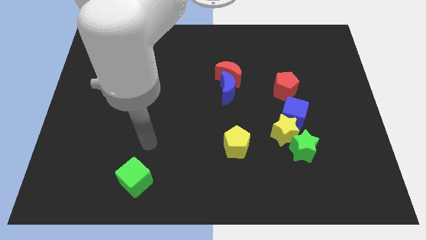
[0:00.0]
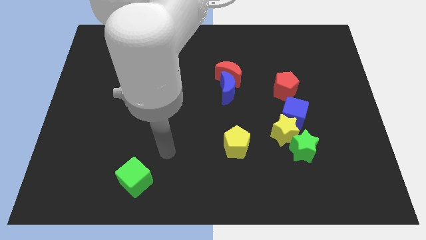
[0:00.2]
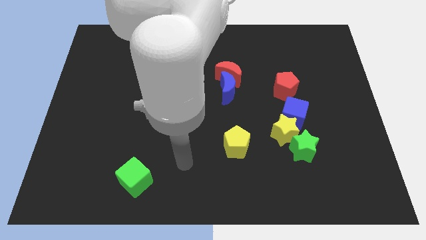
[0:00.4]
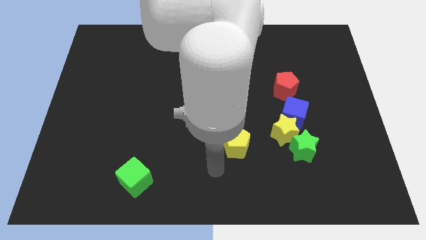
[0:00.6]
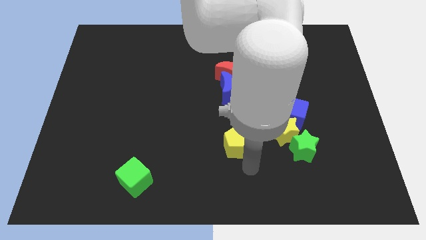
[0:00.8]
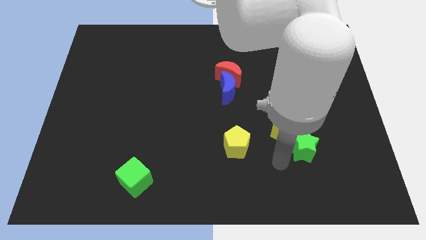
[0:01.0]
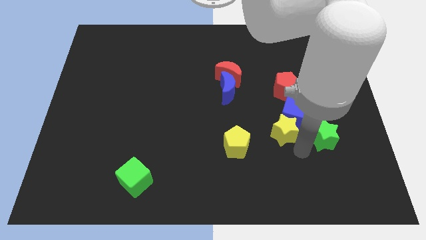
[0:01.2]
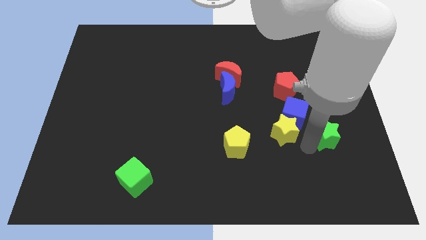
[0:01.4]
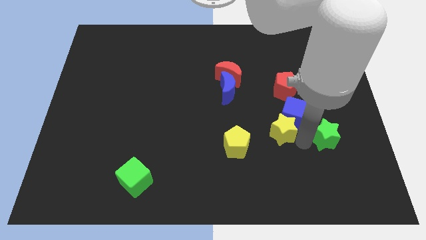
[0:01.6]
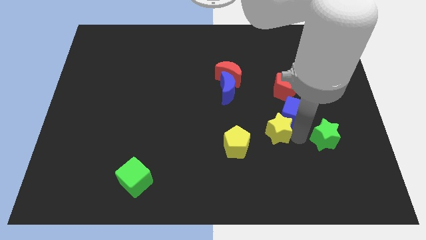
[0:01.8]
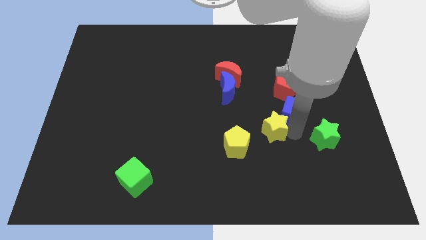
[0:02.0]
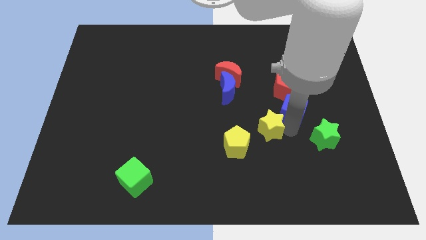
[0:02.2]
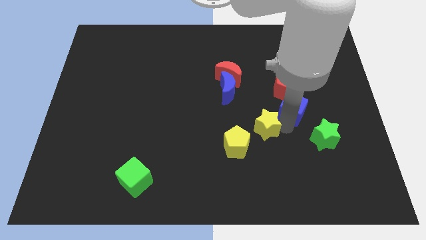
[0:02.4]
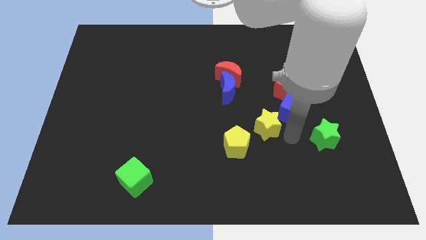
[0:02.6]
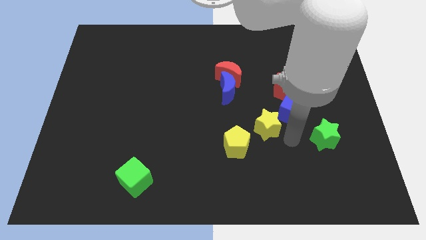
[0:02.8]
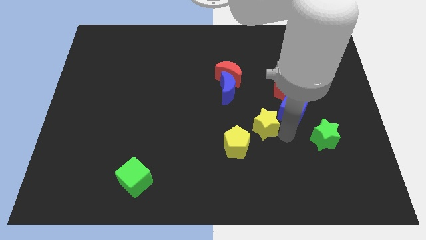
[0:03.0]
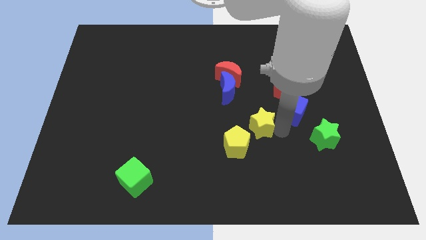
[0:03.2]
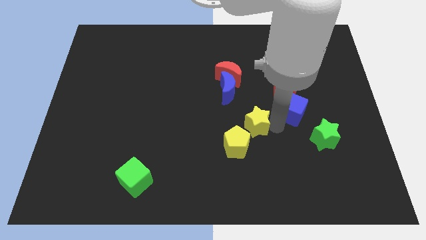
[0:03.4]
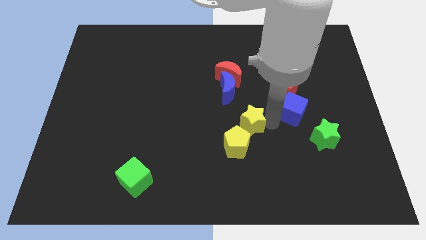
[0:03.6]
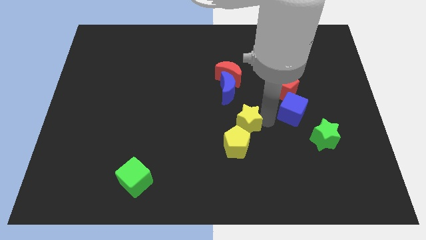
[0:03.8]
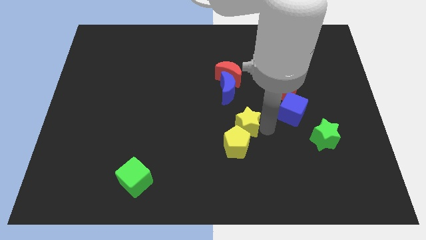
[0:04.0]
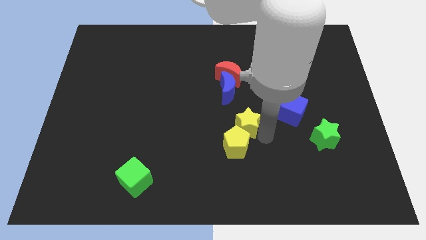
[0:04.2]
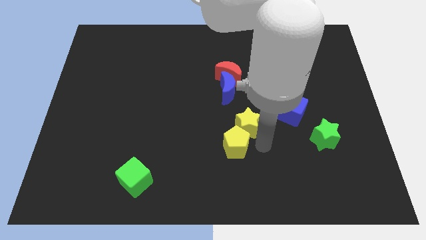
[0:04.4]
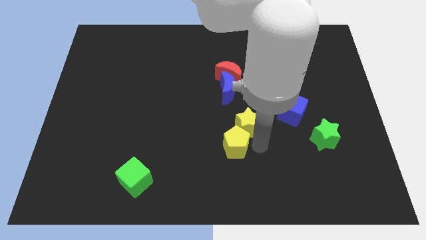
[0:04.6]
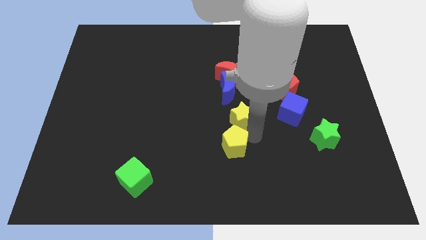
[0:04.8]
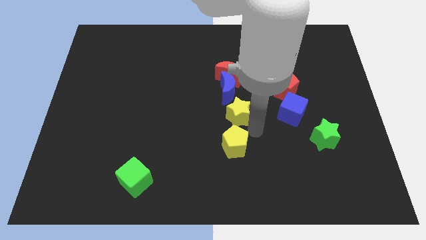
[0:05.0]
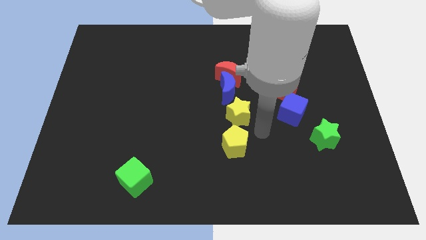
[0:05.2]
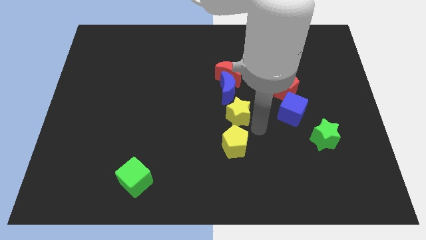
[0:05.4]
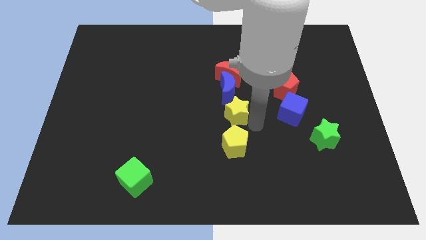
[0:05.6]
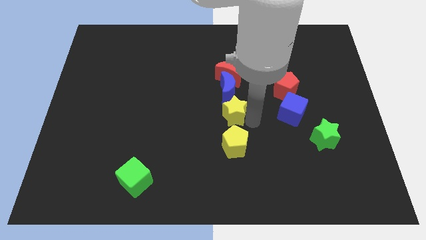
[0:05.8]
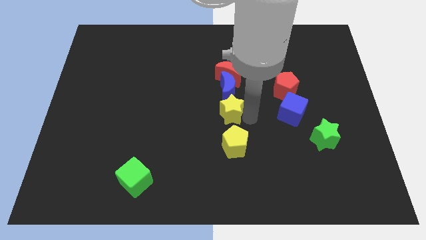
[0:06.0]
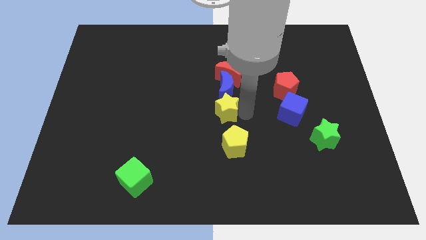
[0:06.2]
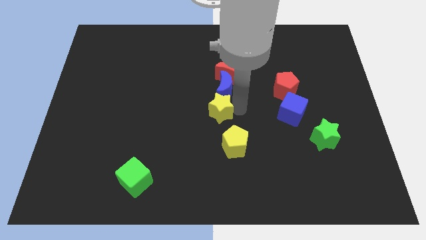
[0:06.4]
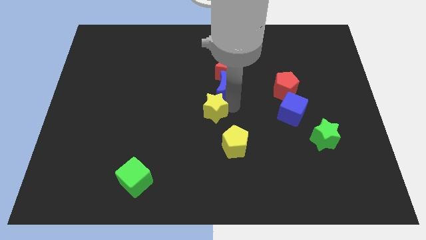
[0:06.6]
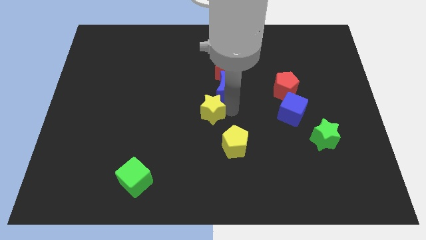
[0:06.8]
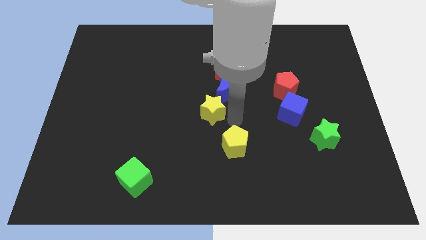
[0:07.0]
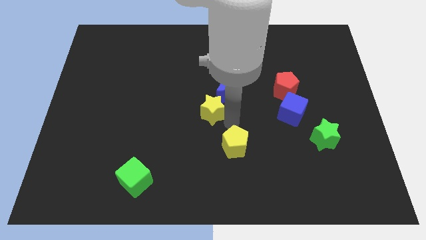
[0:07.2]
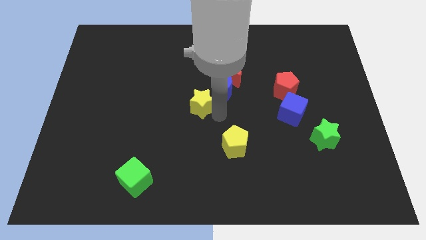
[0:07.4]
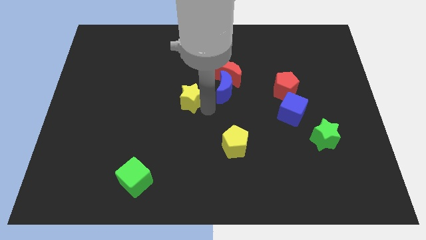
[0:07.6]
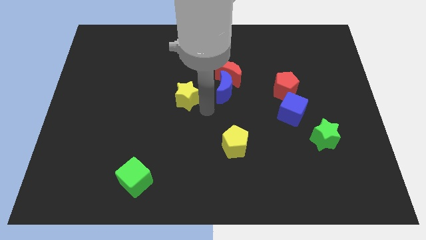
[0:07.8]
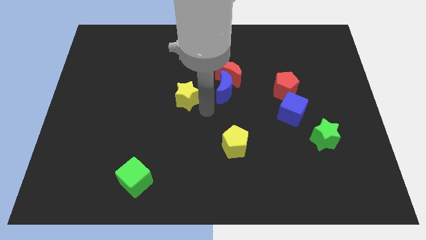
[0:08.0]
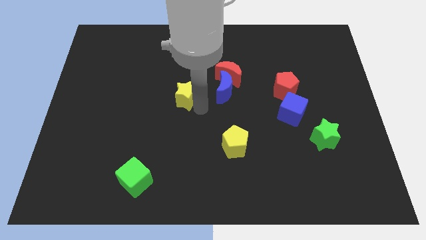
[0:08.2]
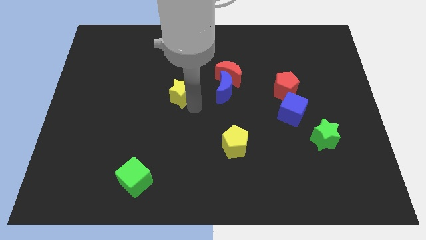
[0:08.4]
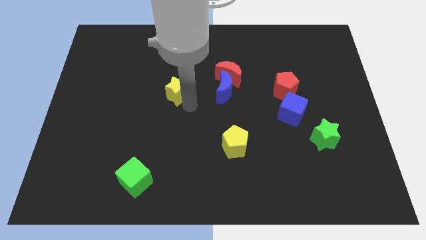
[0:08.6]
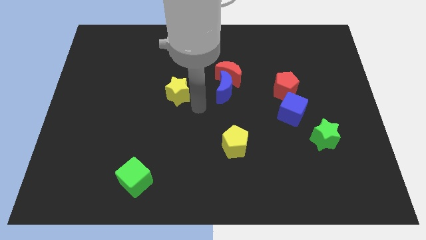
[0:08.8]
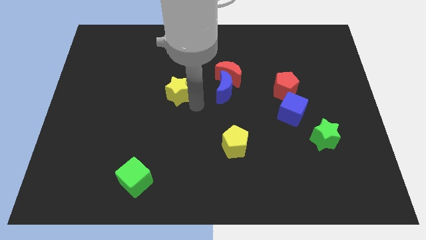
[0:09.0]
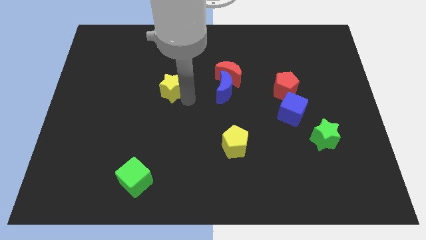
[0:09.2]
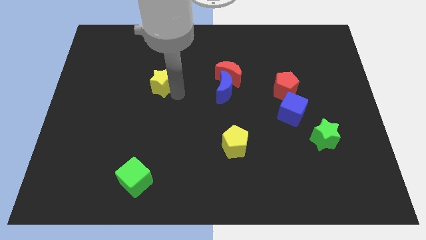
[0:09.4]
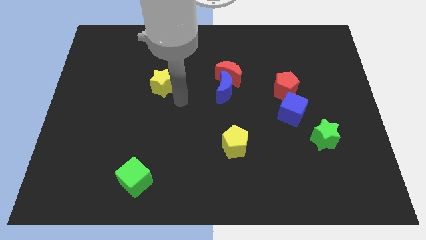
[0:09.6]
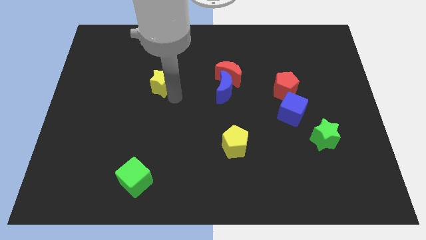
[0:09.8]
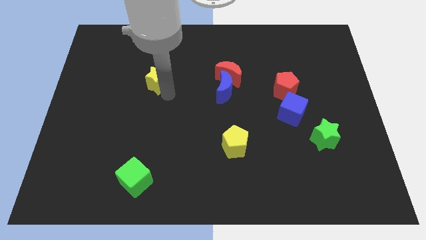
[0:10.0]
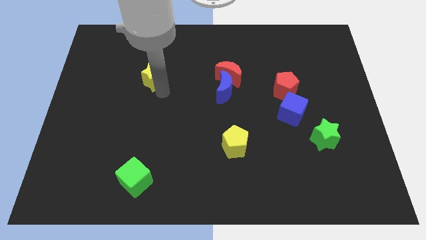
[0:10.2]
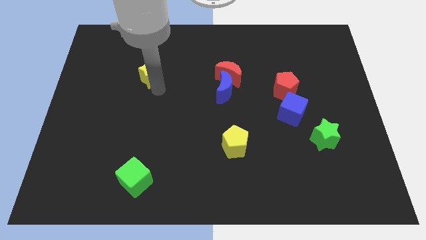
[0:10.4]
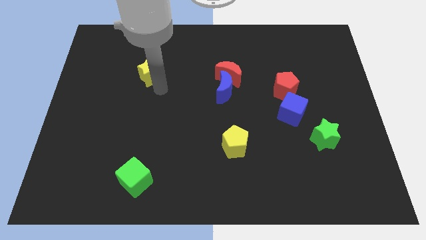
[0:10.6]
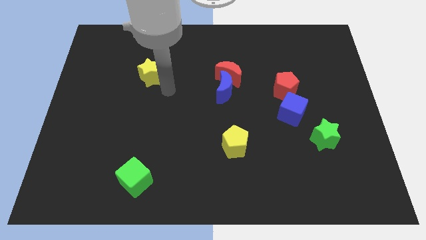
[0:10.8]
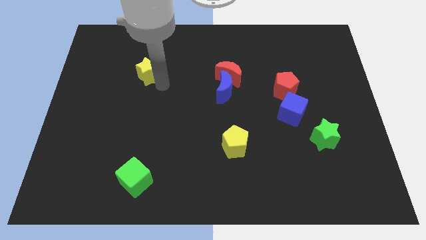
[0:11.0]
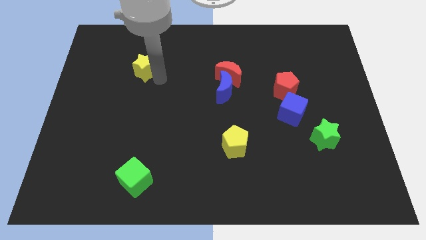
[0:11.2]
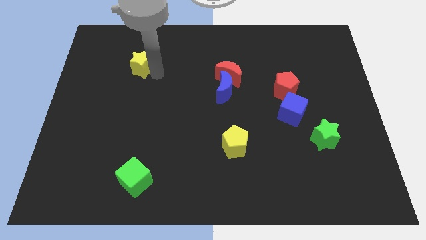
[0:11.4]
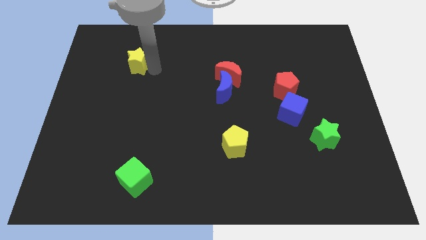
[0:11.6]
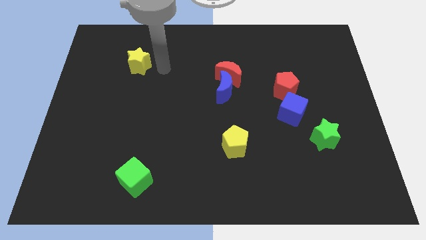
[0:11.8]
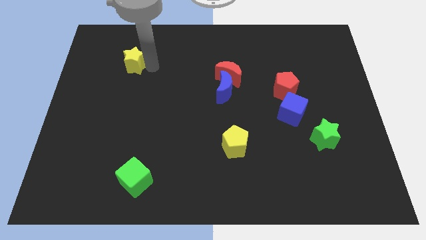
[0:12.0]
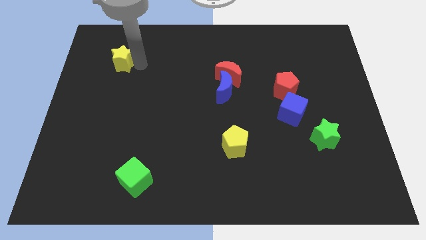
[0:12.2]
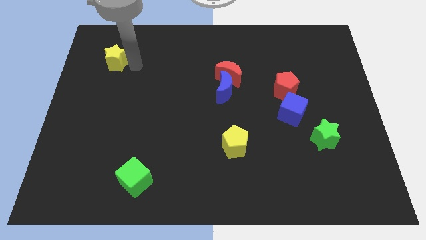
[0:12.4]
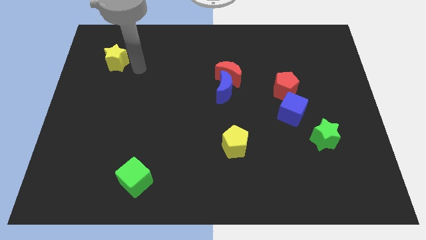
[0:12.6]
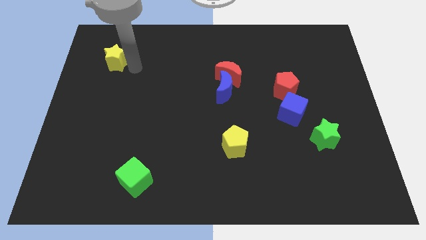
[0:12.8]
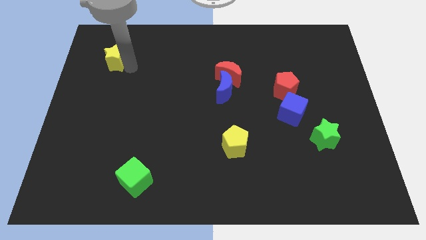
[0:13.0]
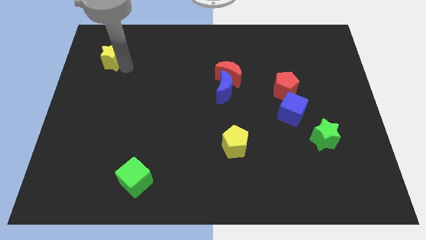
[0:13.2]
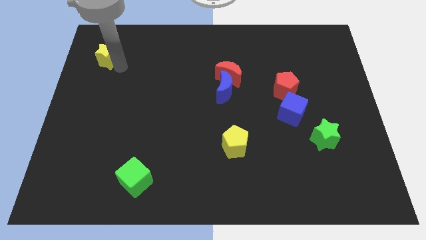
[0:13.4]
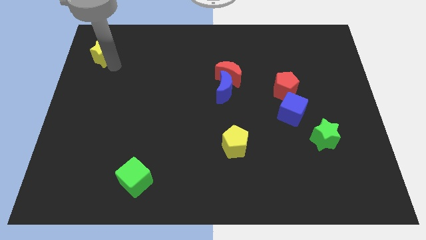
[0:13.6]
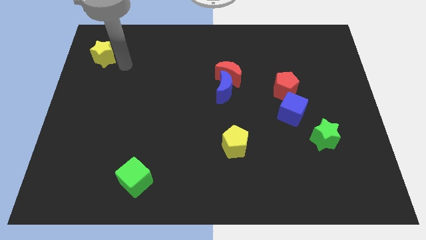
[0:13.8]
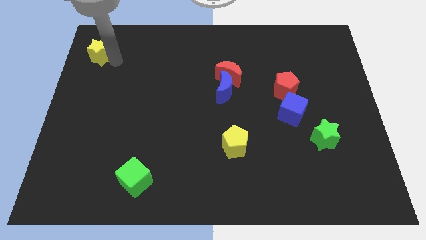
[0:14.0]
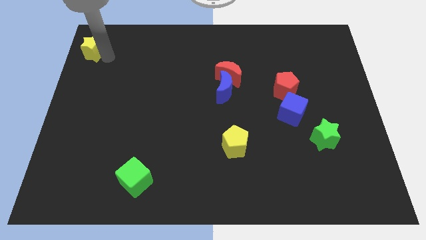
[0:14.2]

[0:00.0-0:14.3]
put the yellow star to the upper left corner
